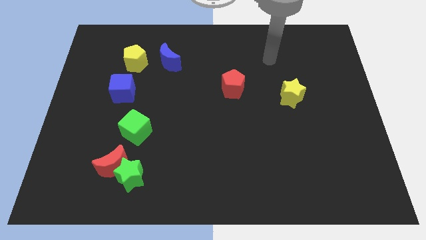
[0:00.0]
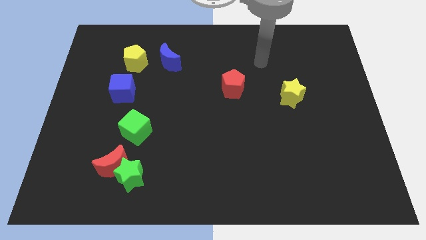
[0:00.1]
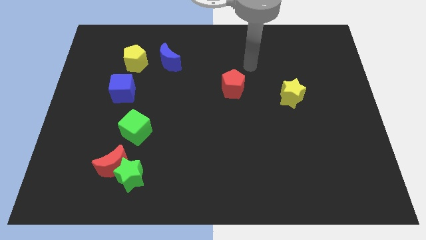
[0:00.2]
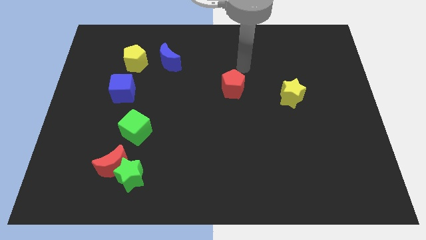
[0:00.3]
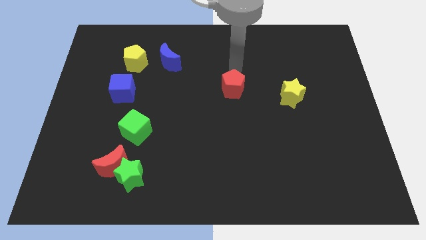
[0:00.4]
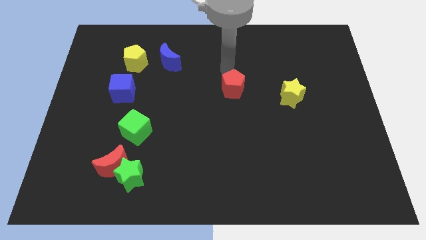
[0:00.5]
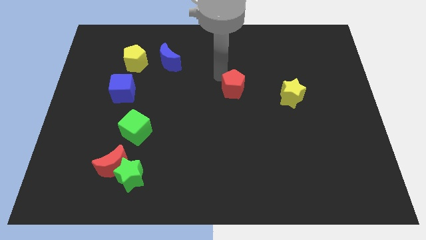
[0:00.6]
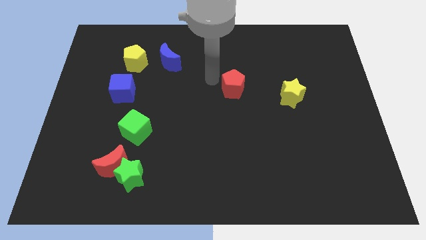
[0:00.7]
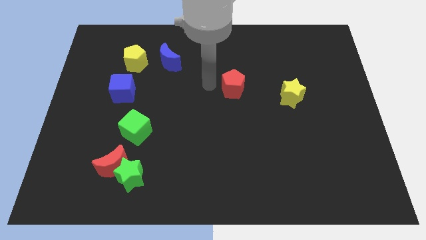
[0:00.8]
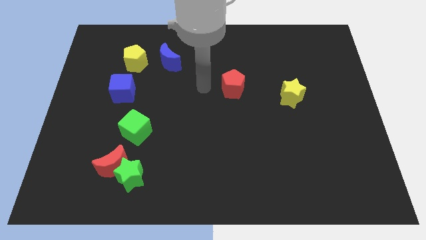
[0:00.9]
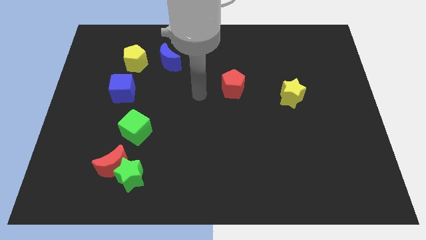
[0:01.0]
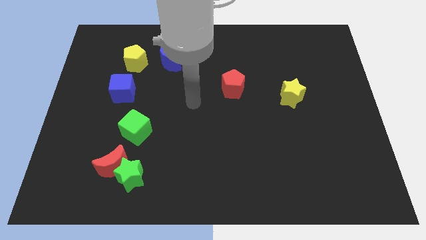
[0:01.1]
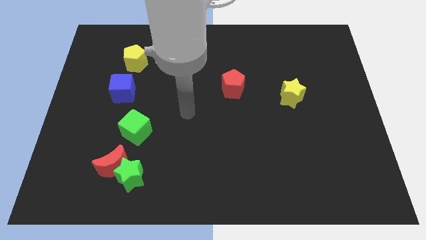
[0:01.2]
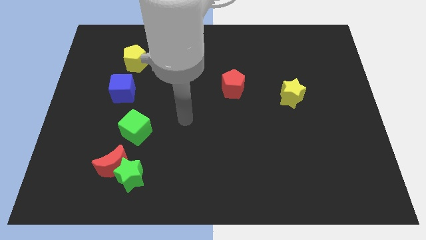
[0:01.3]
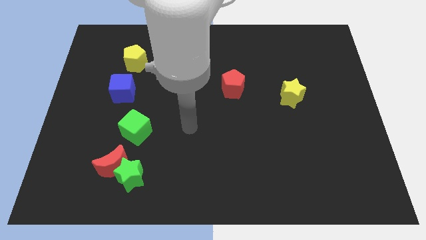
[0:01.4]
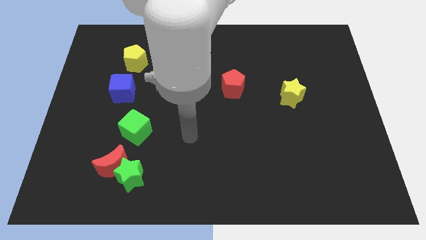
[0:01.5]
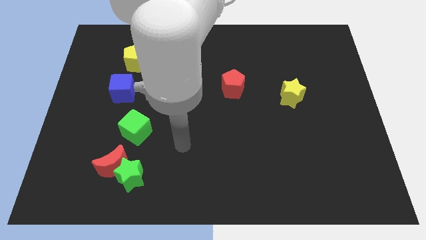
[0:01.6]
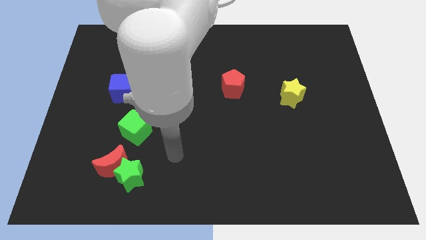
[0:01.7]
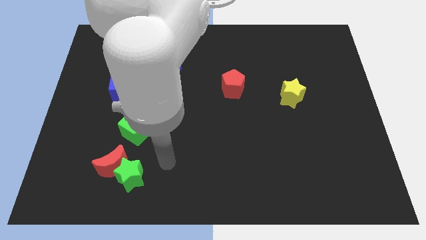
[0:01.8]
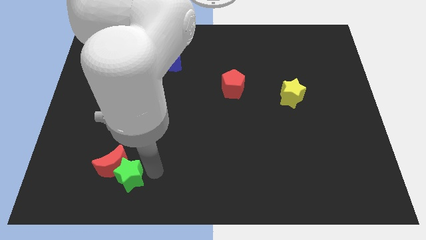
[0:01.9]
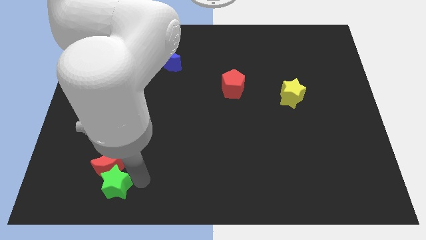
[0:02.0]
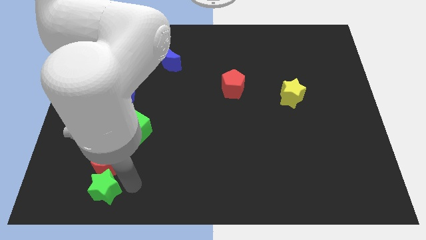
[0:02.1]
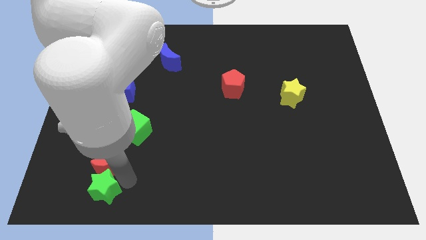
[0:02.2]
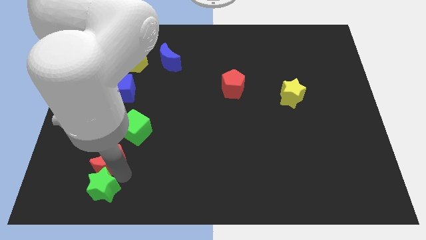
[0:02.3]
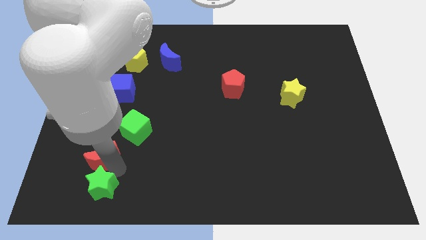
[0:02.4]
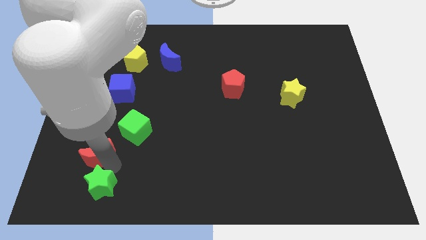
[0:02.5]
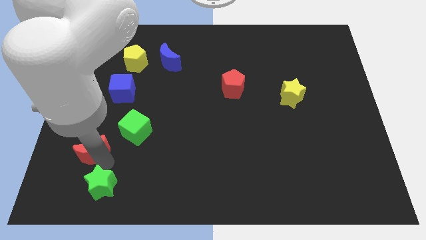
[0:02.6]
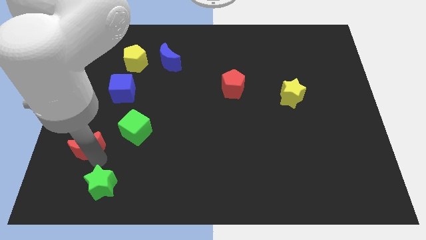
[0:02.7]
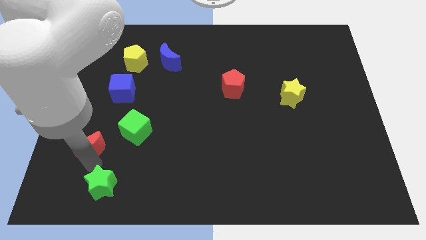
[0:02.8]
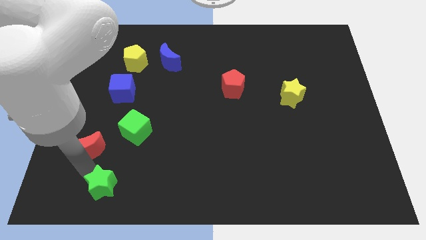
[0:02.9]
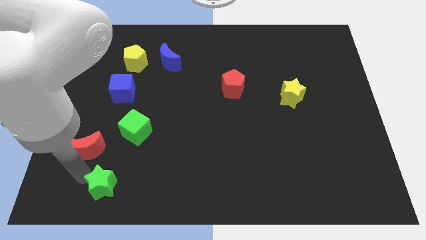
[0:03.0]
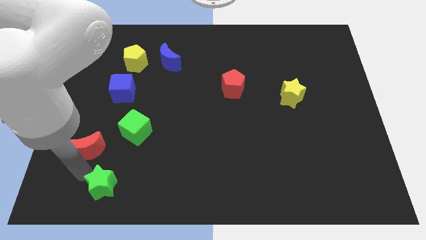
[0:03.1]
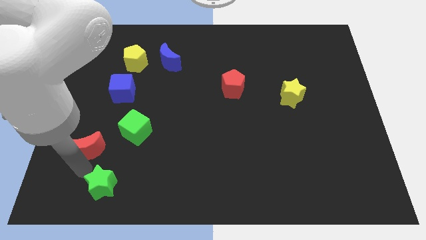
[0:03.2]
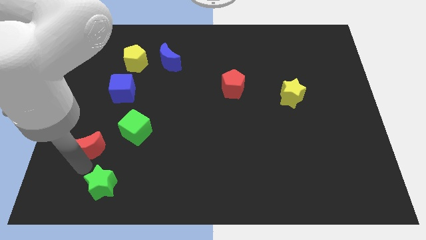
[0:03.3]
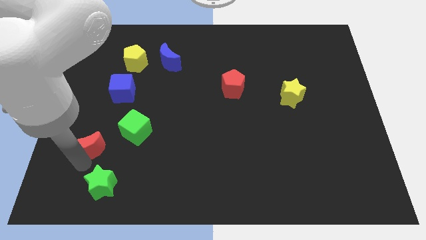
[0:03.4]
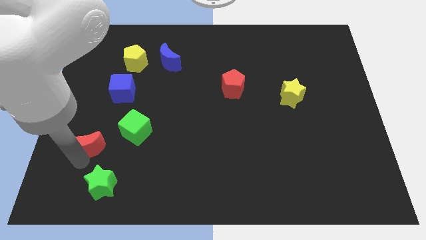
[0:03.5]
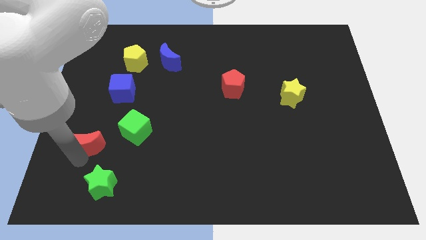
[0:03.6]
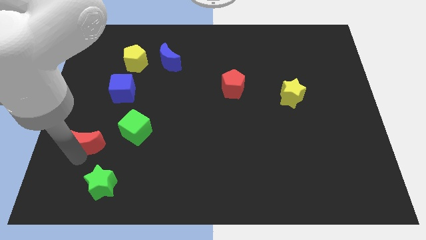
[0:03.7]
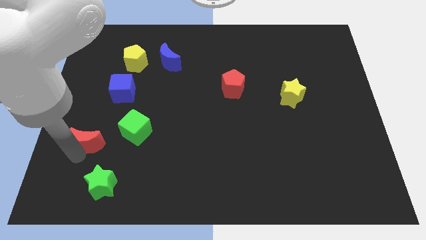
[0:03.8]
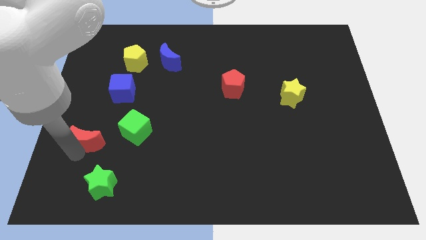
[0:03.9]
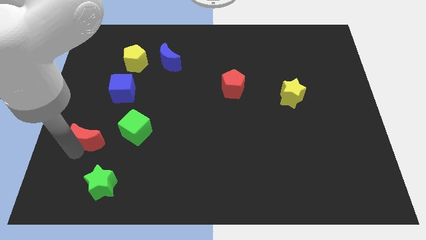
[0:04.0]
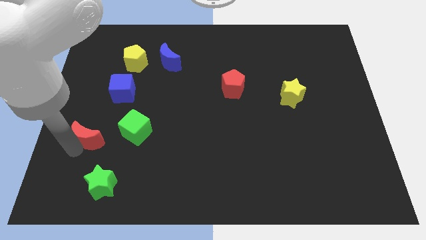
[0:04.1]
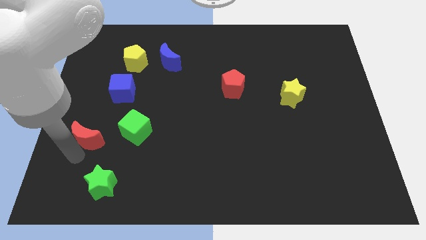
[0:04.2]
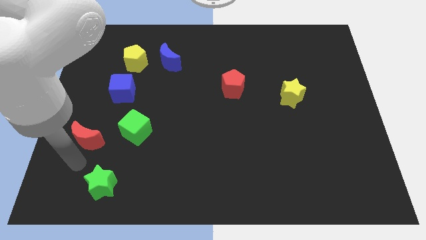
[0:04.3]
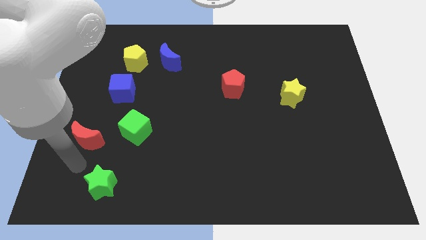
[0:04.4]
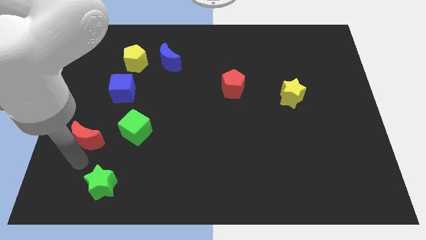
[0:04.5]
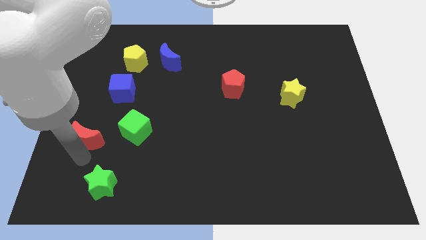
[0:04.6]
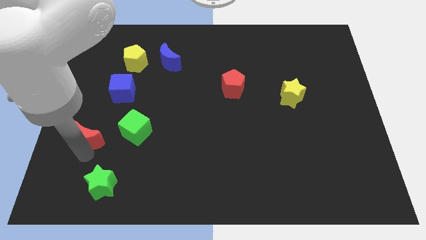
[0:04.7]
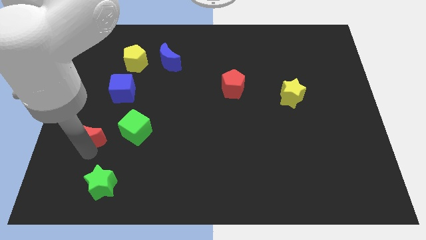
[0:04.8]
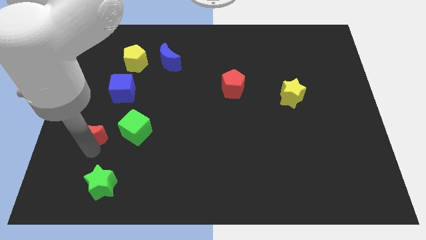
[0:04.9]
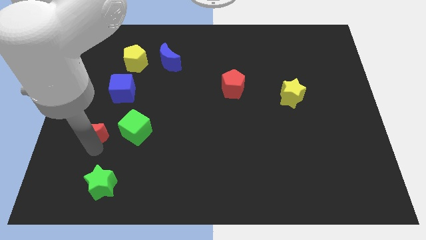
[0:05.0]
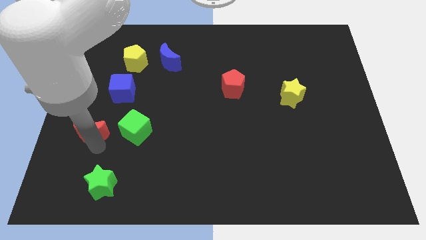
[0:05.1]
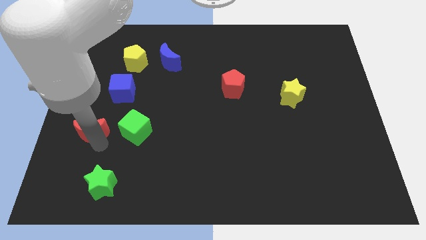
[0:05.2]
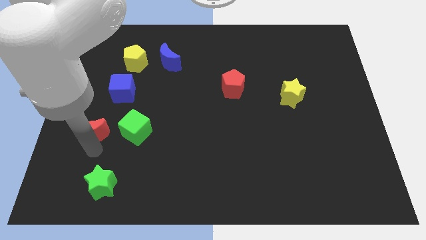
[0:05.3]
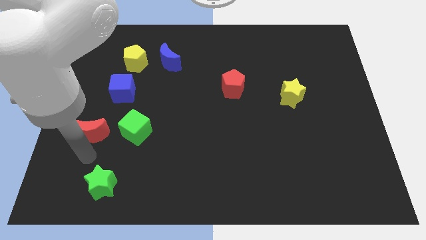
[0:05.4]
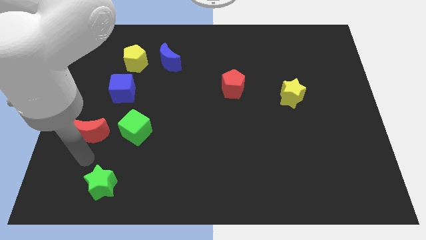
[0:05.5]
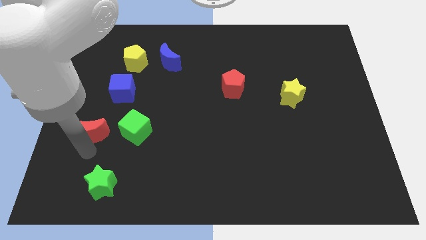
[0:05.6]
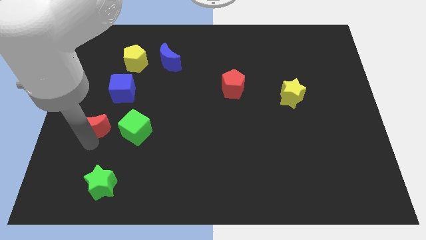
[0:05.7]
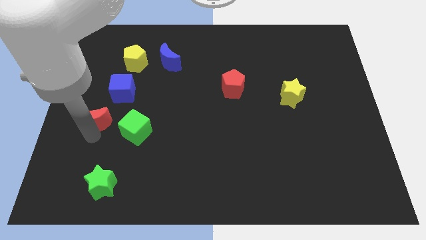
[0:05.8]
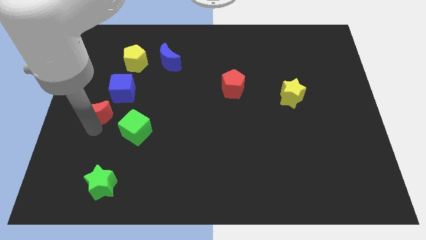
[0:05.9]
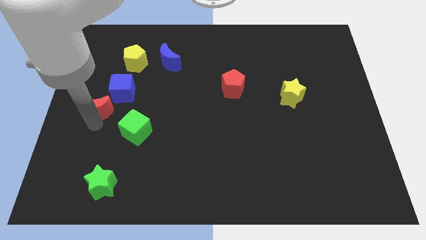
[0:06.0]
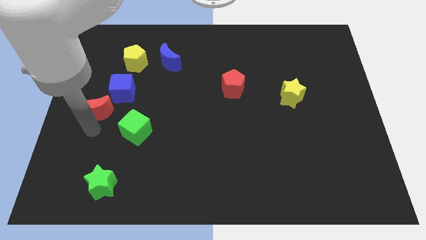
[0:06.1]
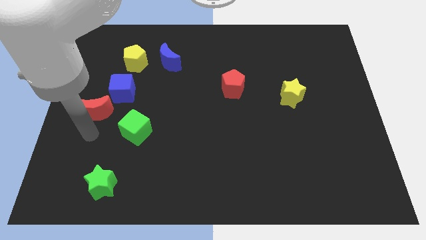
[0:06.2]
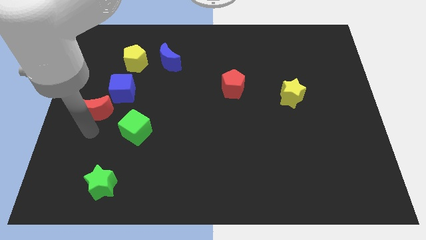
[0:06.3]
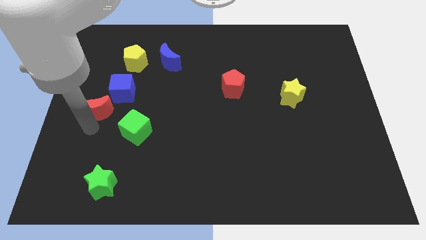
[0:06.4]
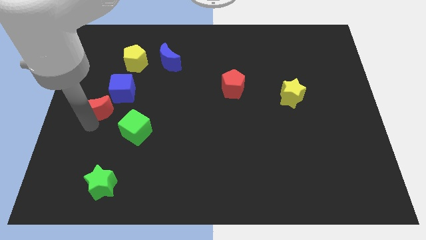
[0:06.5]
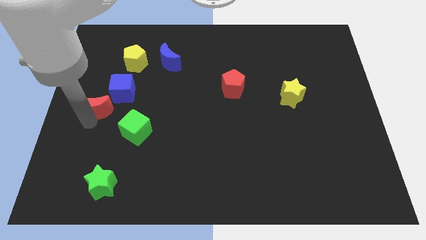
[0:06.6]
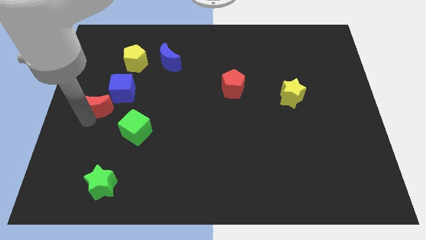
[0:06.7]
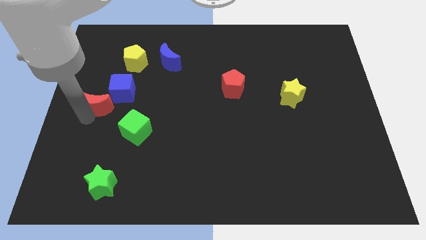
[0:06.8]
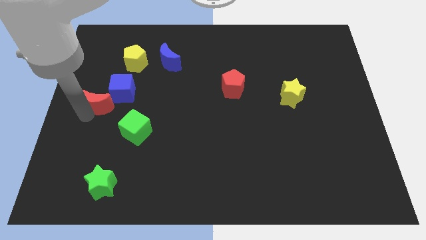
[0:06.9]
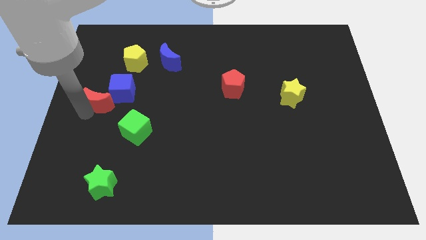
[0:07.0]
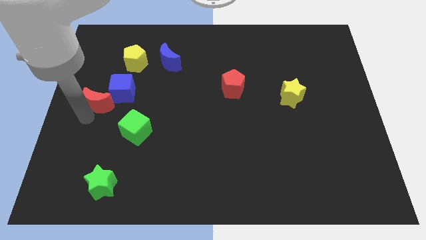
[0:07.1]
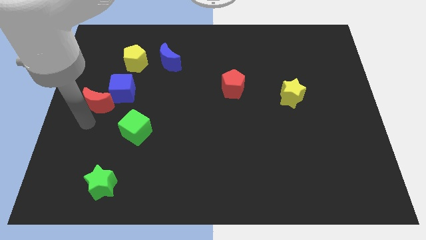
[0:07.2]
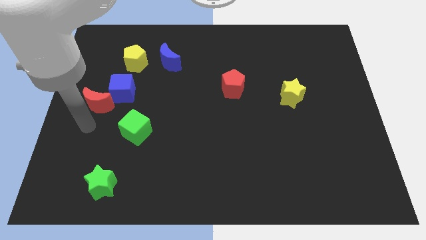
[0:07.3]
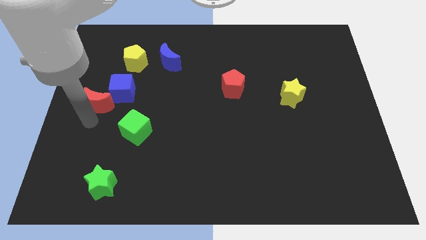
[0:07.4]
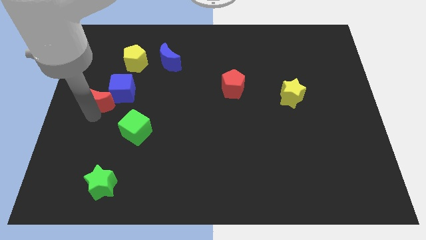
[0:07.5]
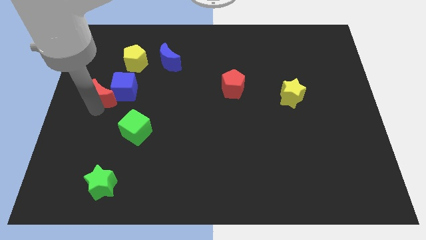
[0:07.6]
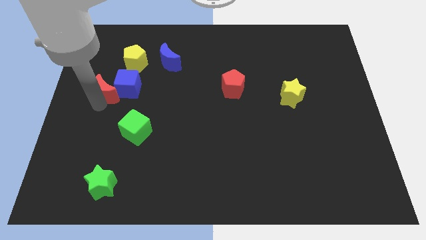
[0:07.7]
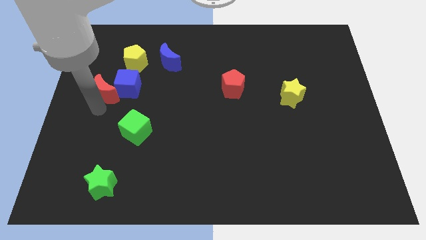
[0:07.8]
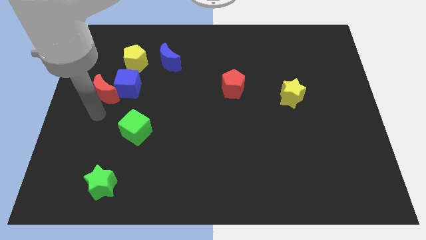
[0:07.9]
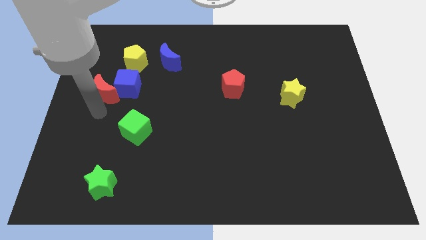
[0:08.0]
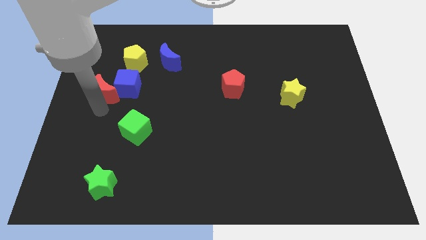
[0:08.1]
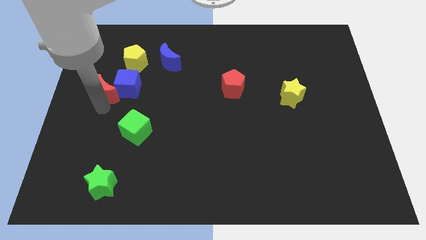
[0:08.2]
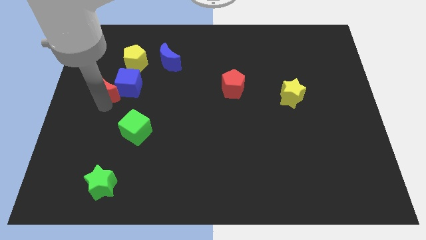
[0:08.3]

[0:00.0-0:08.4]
put the red moon to the bottom left side of the yellow pentagon

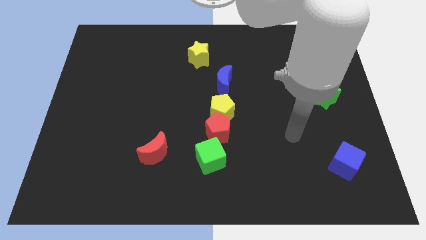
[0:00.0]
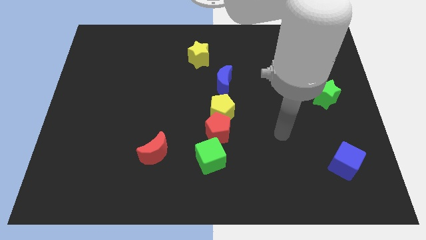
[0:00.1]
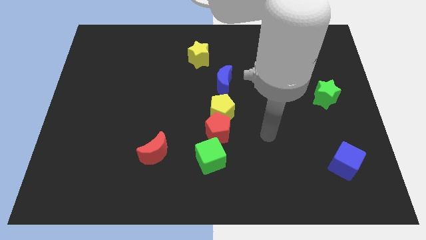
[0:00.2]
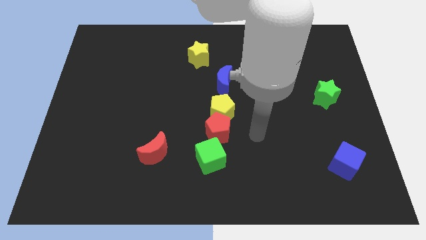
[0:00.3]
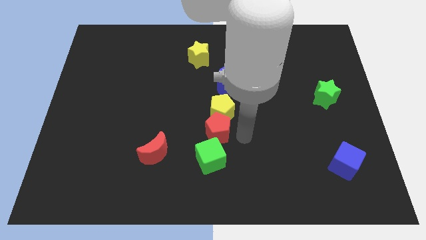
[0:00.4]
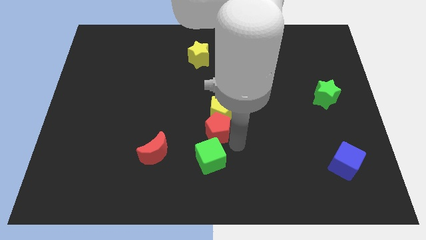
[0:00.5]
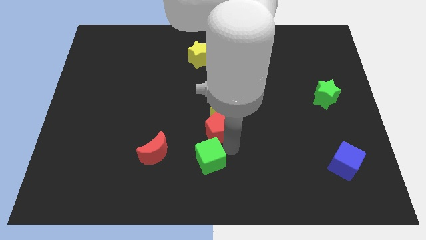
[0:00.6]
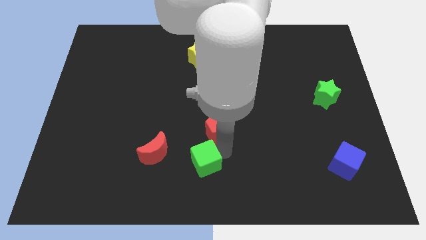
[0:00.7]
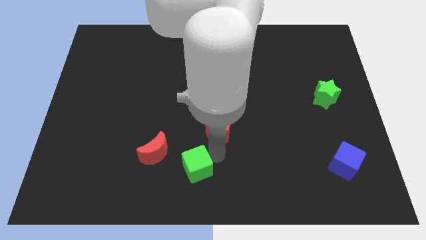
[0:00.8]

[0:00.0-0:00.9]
put the green cube diagonally down and to the right of the red moon
